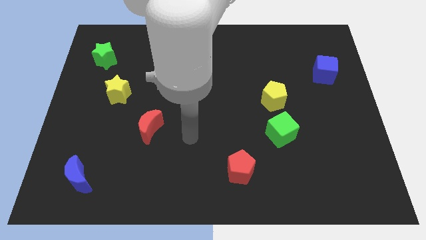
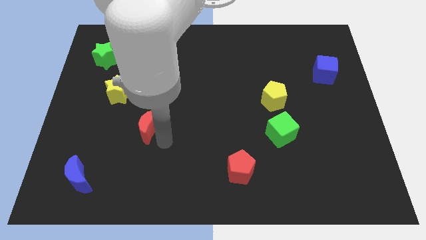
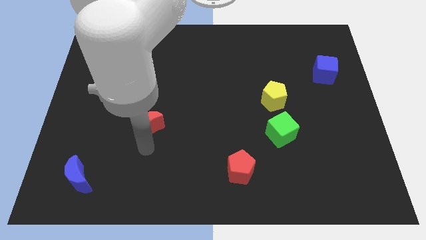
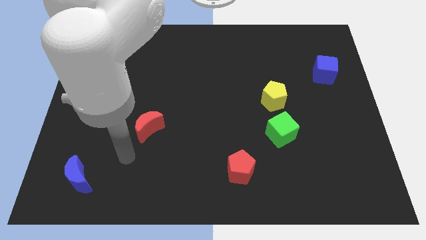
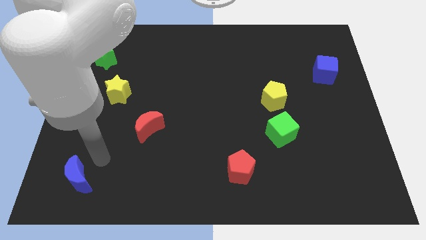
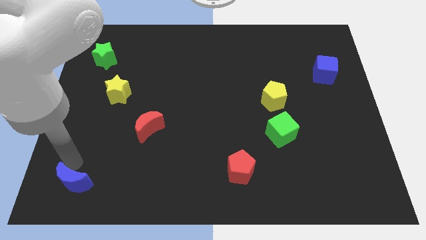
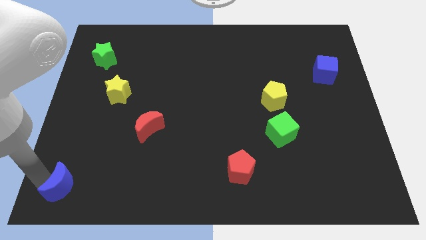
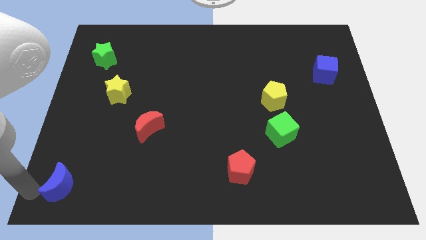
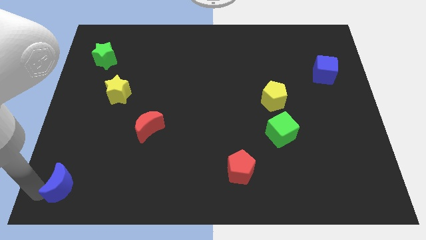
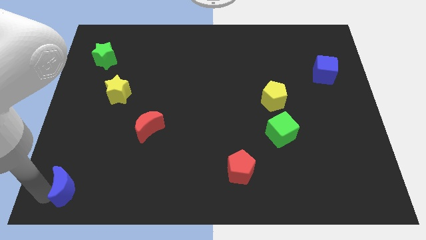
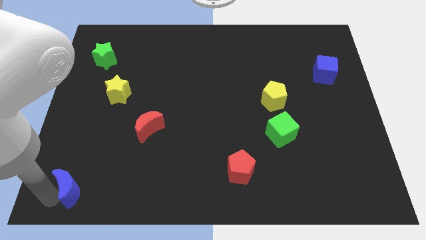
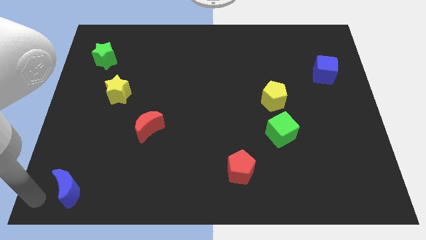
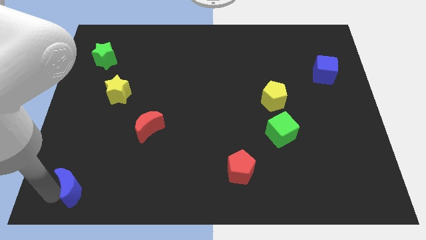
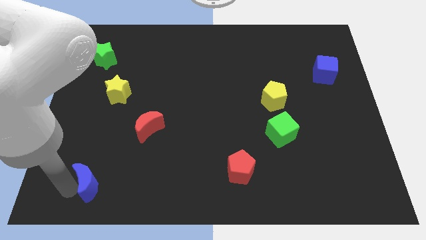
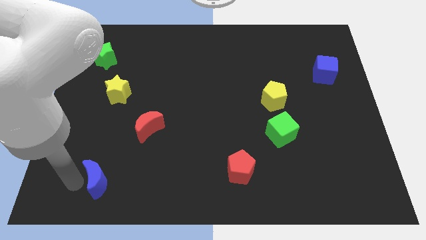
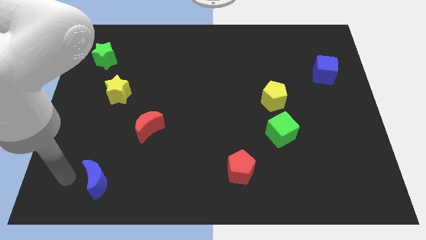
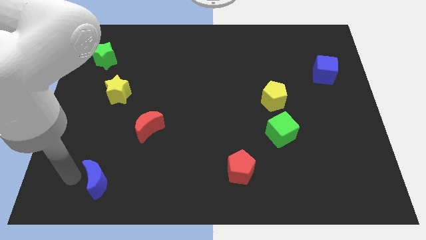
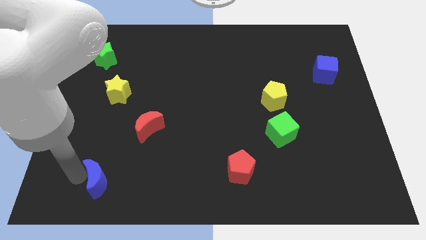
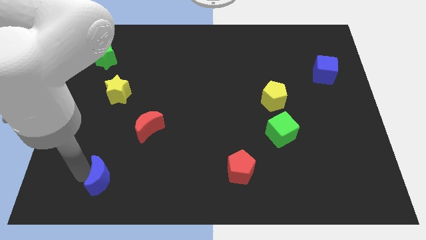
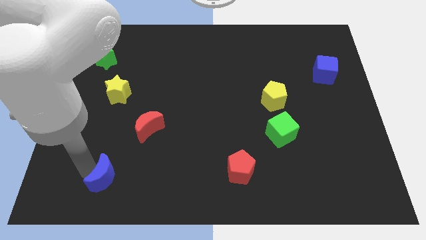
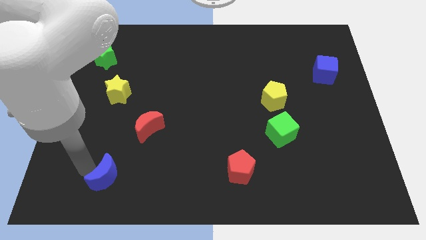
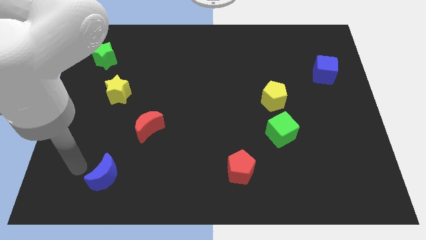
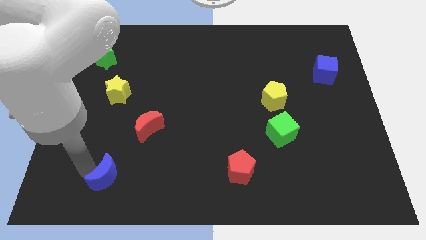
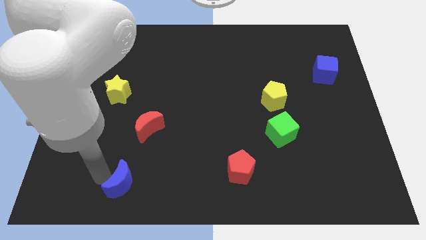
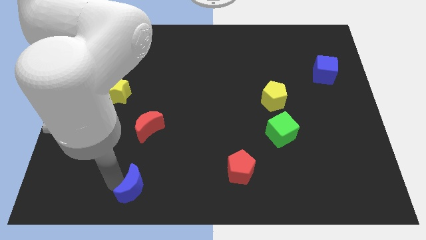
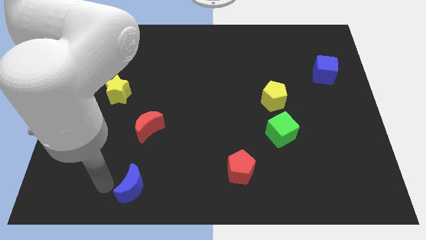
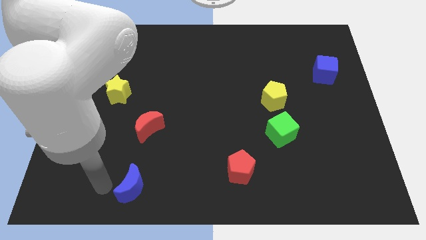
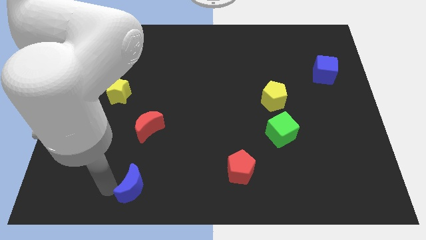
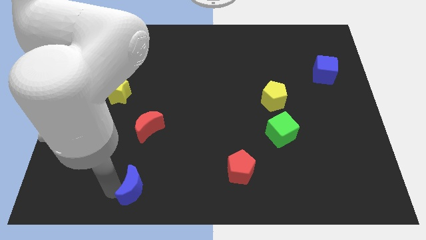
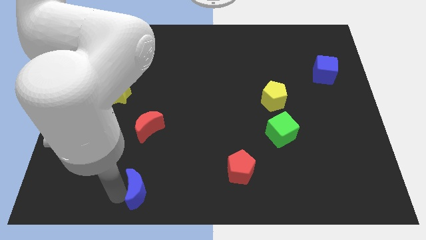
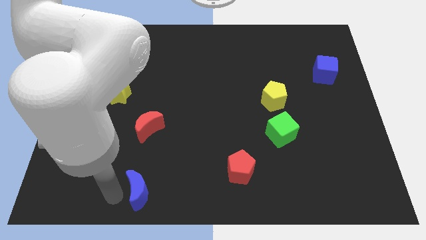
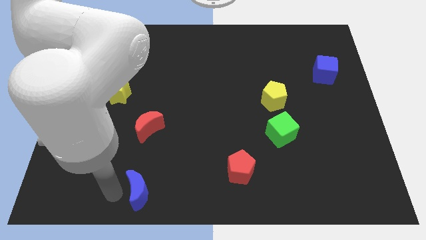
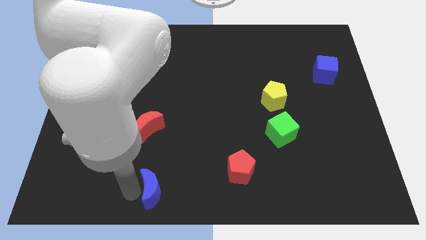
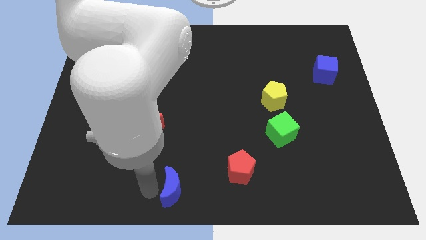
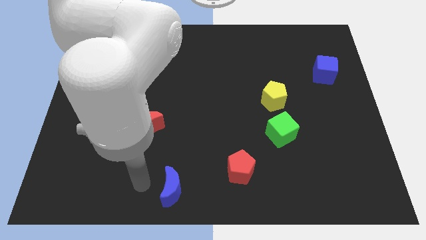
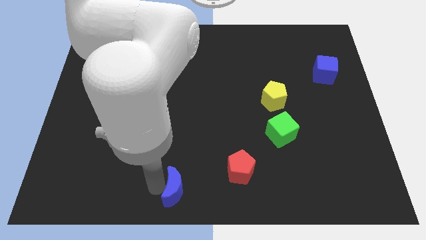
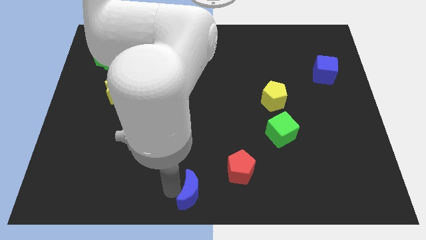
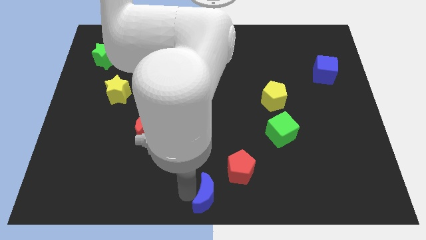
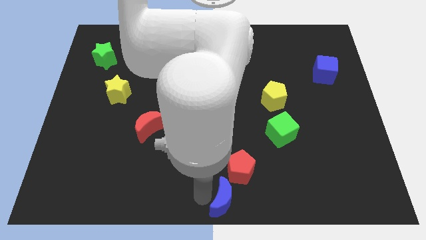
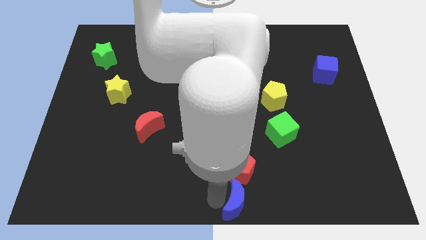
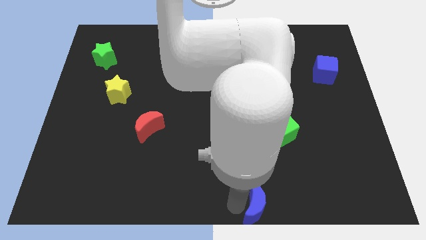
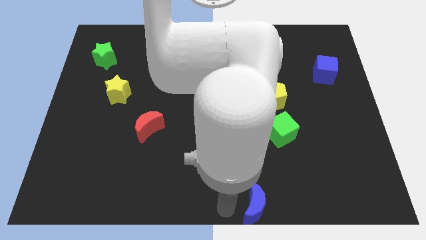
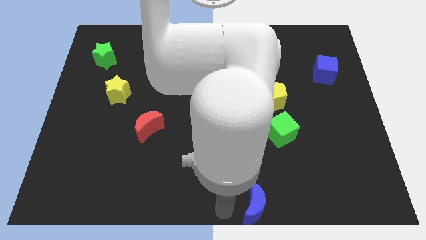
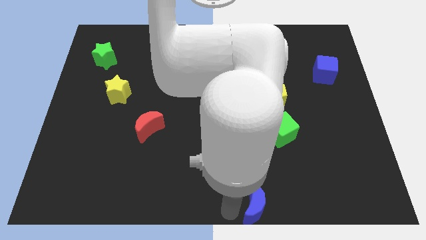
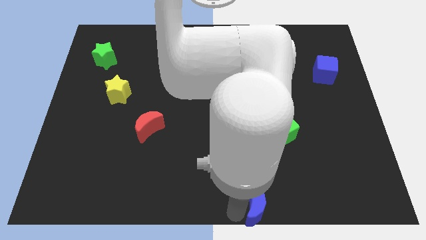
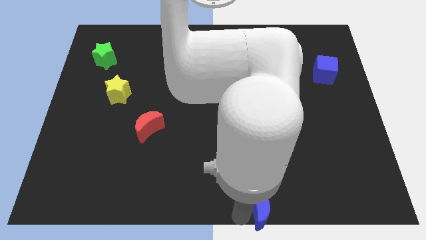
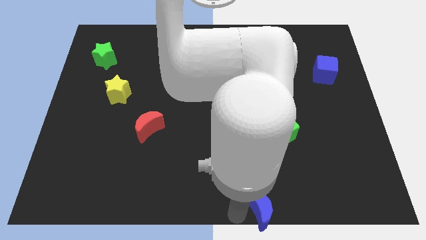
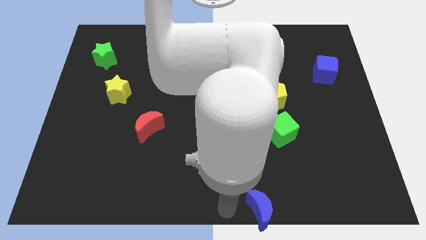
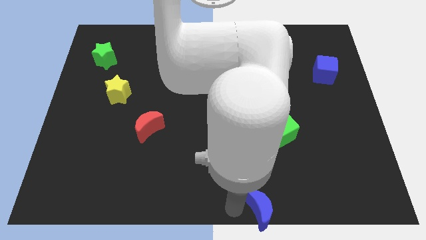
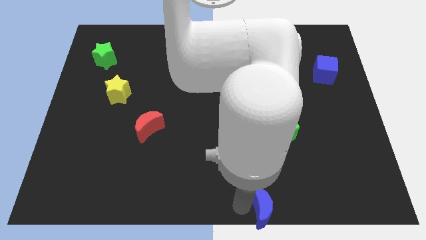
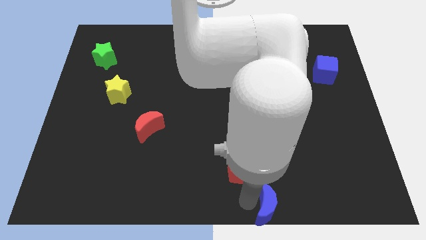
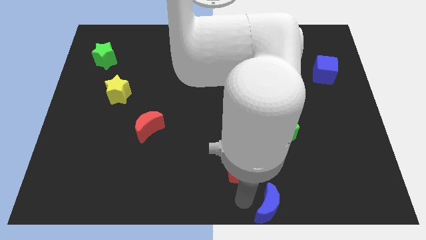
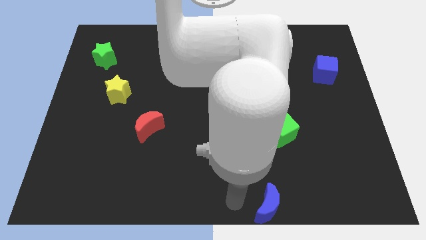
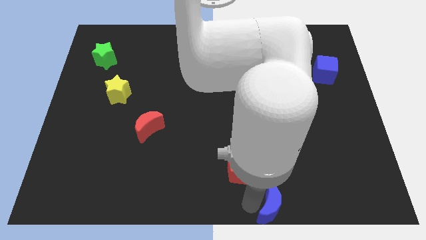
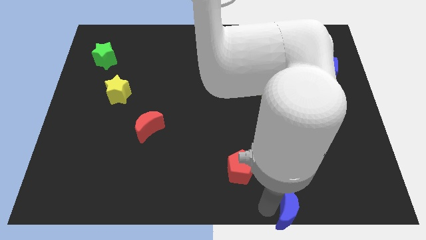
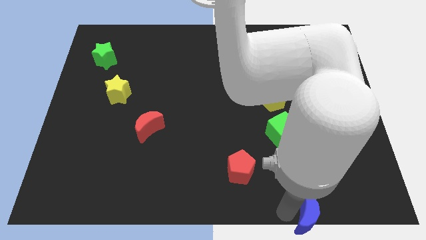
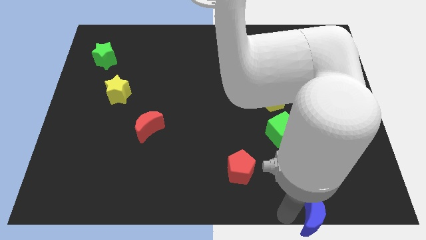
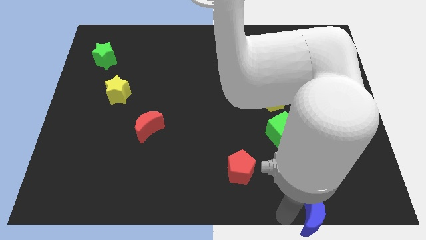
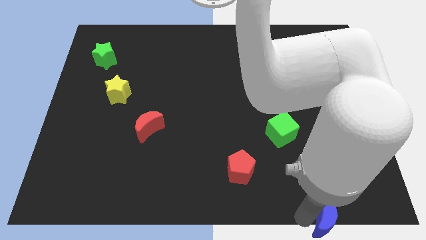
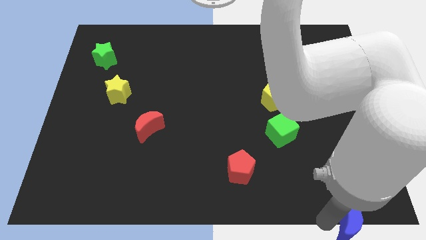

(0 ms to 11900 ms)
move the blue moon to the bottom right of the board

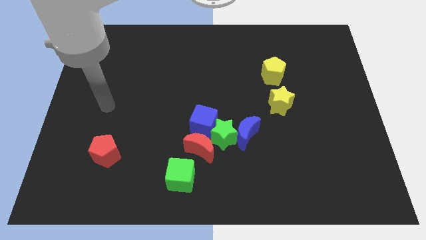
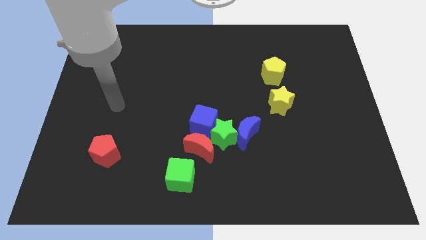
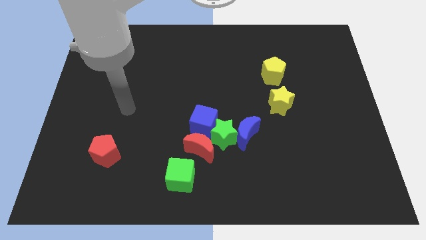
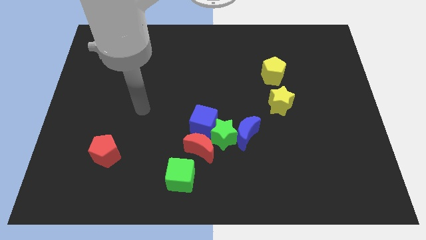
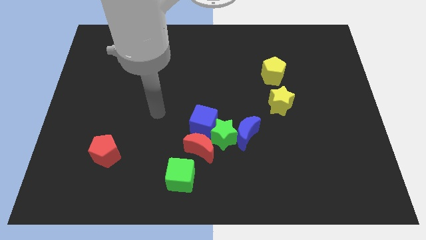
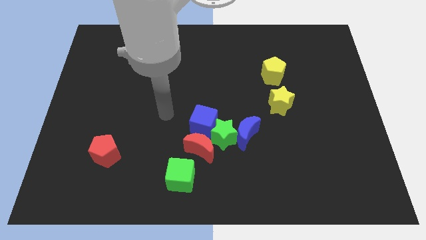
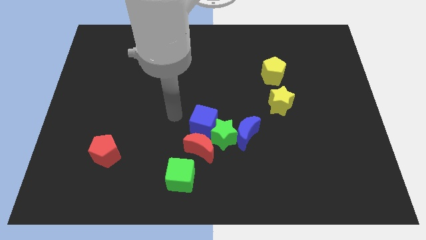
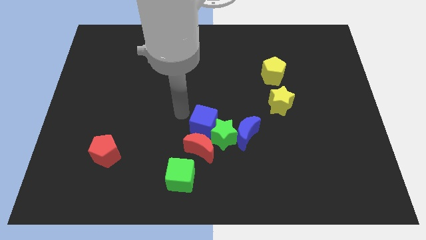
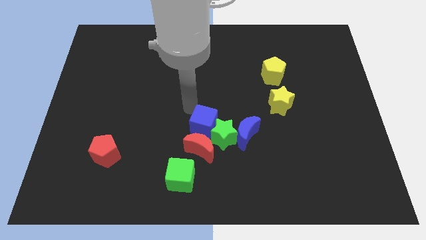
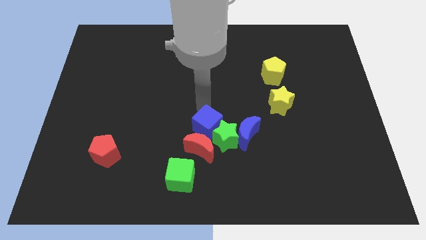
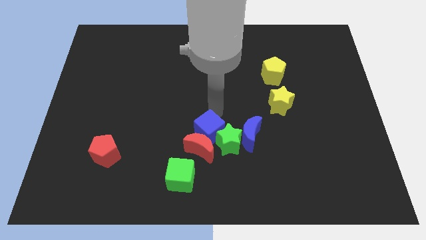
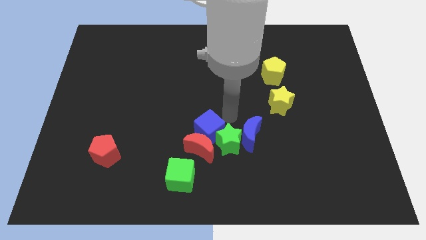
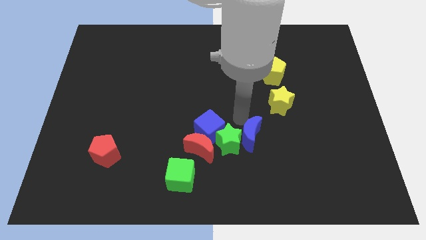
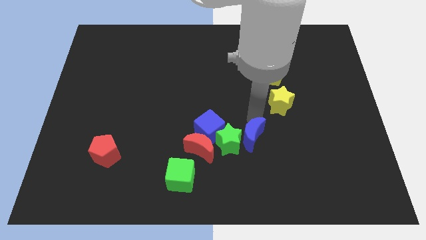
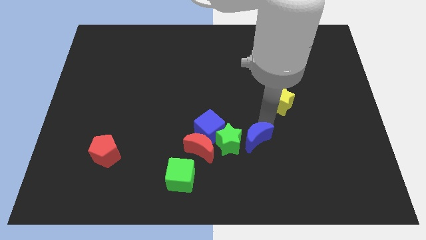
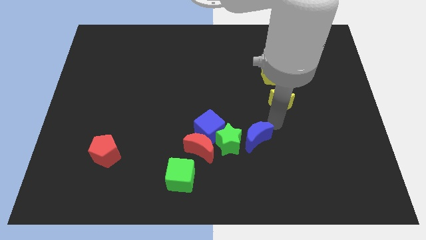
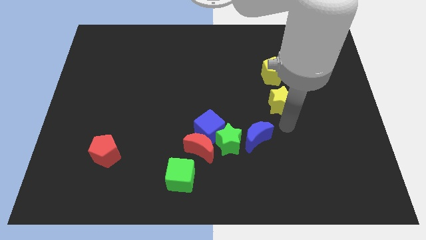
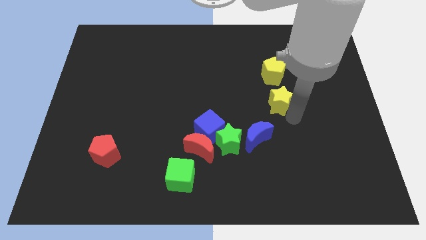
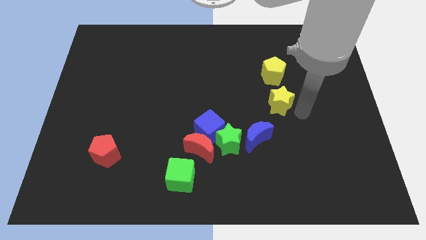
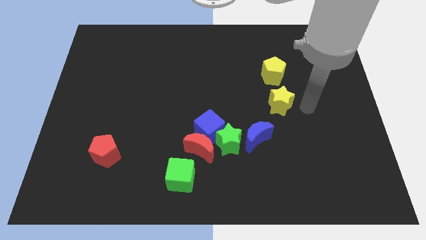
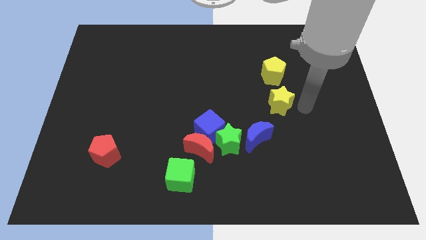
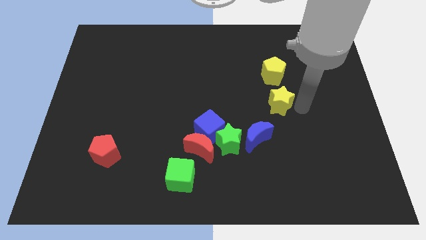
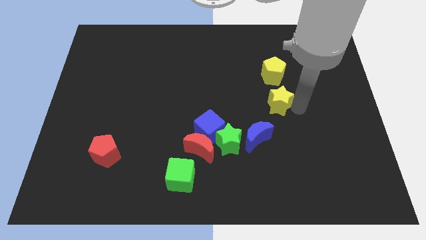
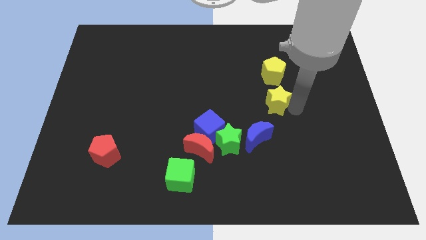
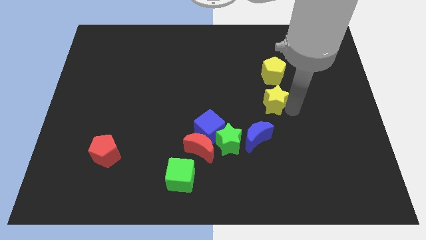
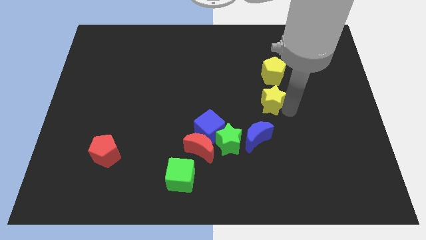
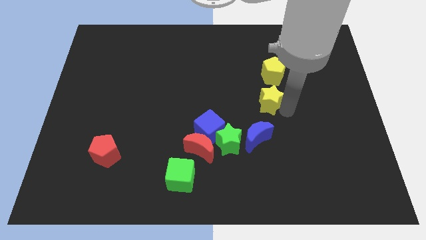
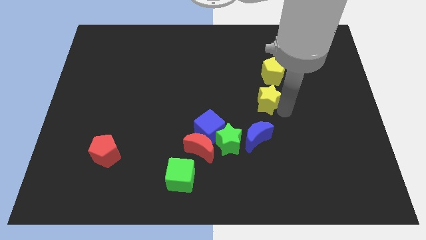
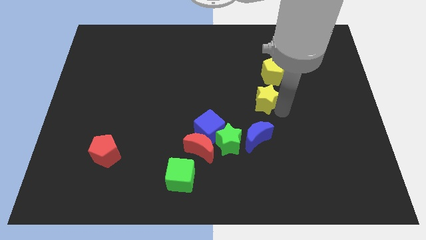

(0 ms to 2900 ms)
push the yellow star to the center
